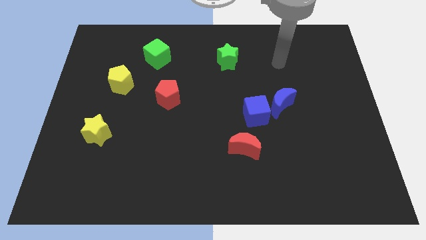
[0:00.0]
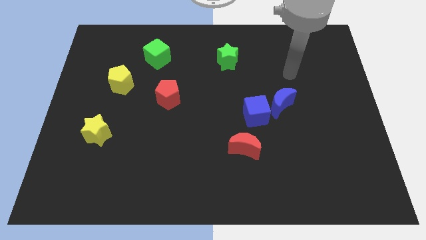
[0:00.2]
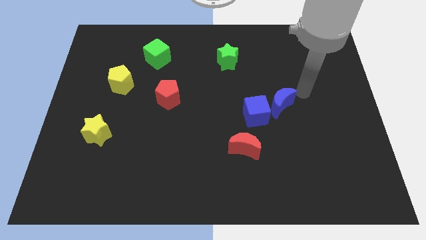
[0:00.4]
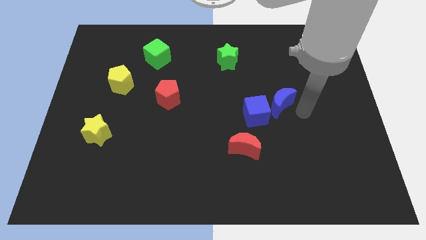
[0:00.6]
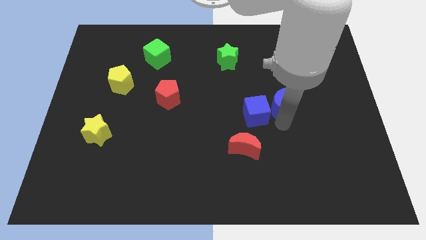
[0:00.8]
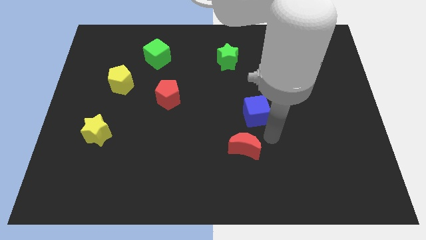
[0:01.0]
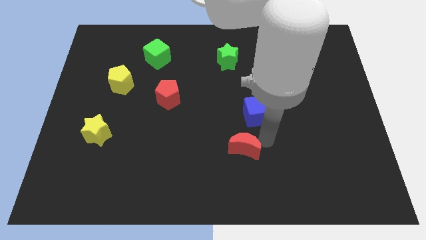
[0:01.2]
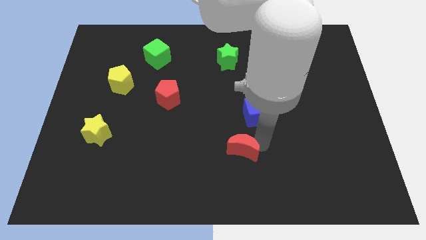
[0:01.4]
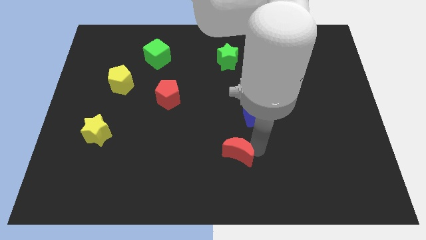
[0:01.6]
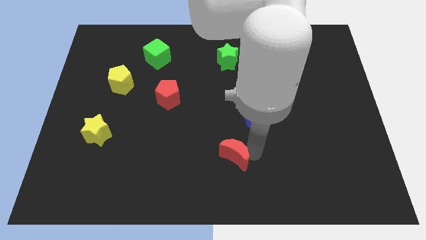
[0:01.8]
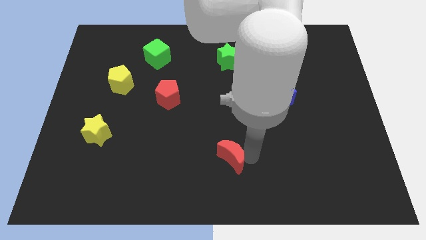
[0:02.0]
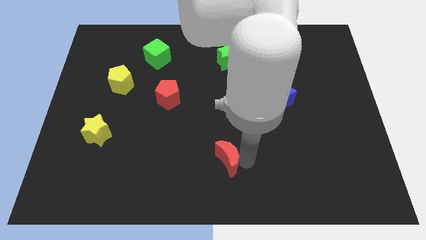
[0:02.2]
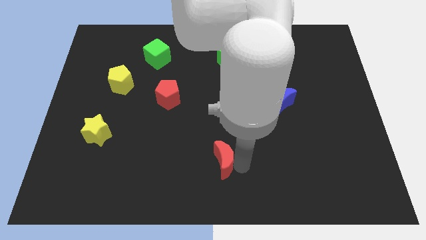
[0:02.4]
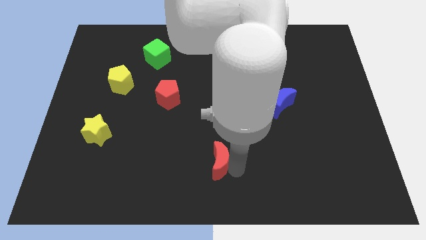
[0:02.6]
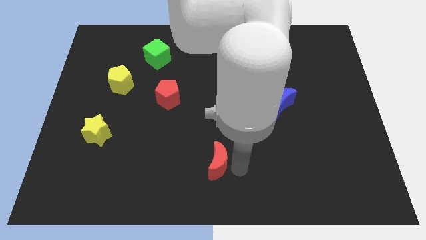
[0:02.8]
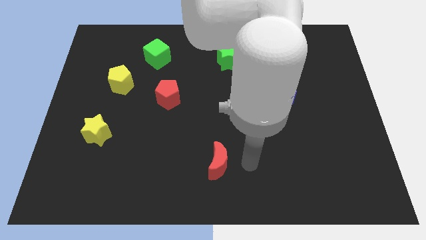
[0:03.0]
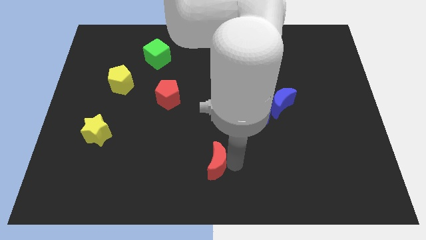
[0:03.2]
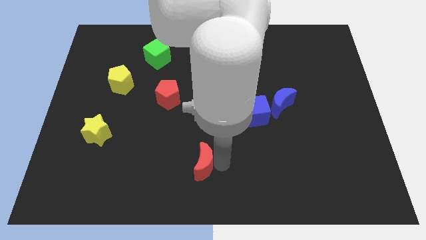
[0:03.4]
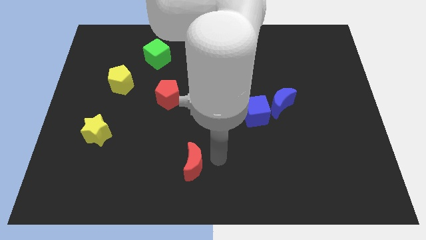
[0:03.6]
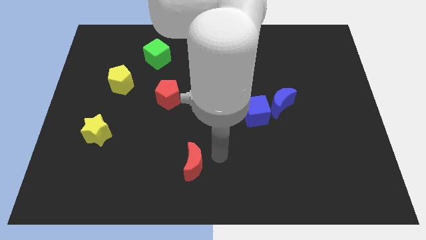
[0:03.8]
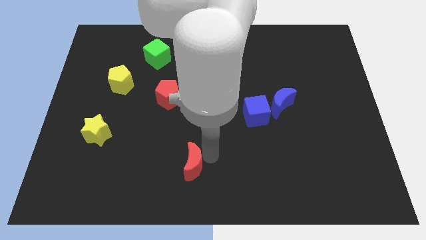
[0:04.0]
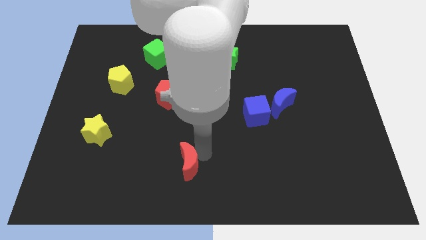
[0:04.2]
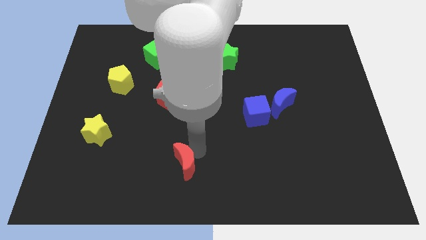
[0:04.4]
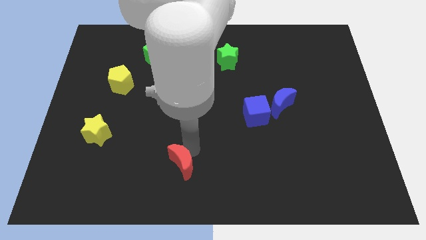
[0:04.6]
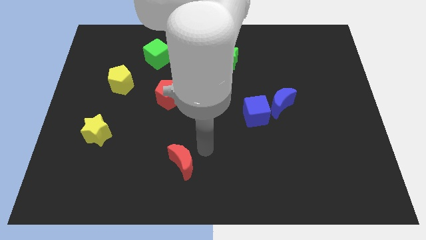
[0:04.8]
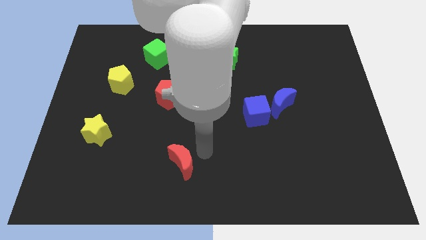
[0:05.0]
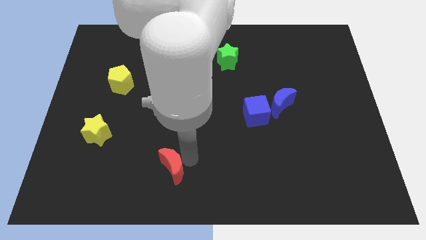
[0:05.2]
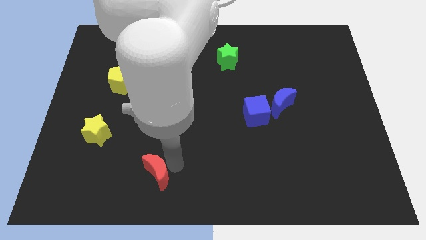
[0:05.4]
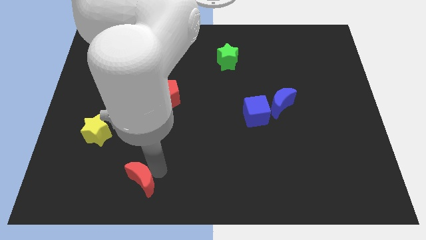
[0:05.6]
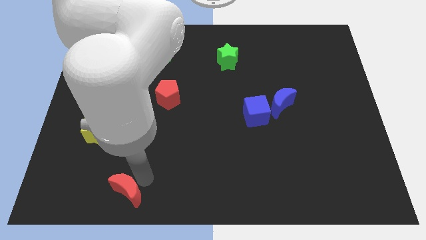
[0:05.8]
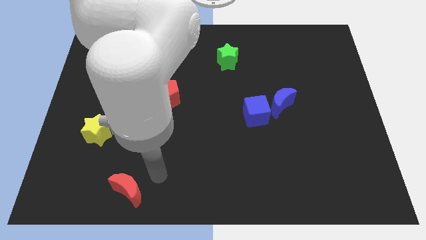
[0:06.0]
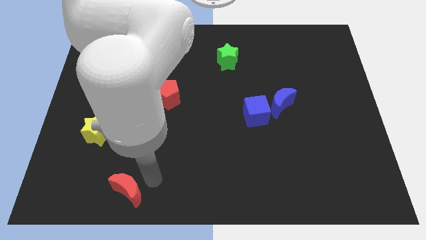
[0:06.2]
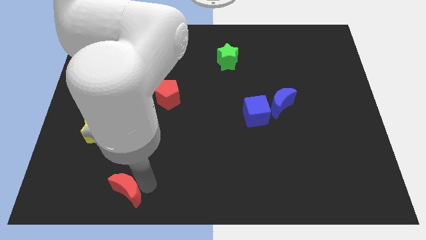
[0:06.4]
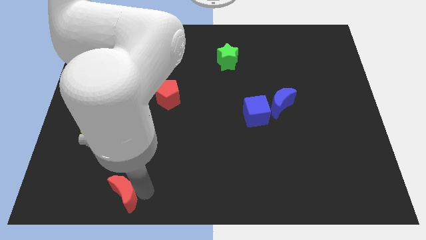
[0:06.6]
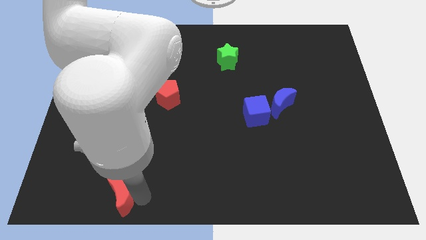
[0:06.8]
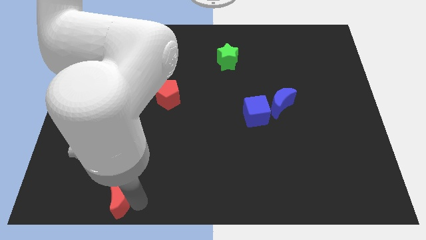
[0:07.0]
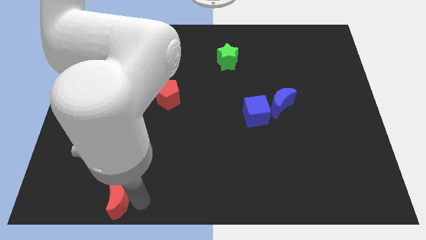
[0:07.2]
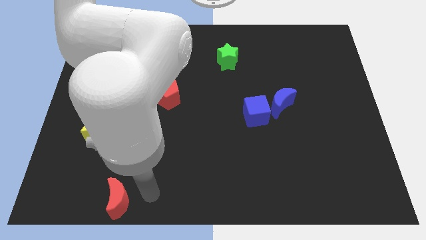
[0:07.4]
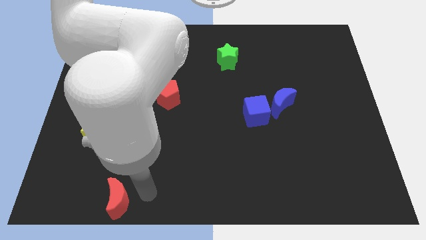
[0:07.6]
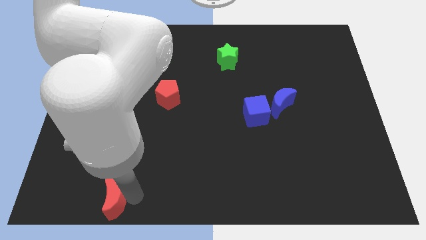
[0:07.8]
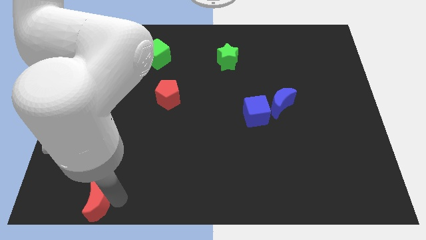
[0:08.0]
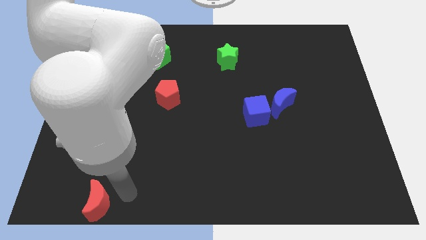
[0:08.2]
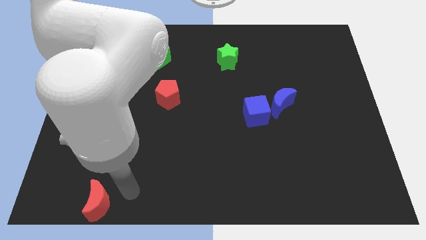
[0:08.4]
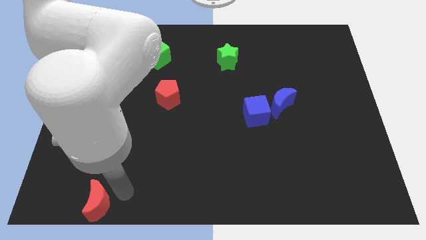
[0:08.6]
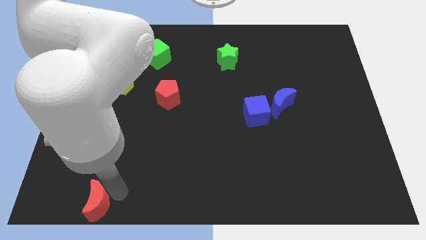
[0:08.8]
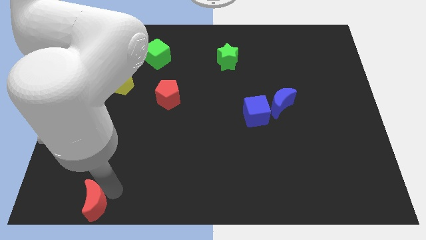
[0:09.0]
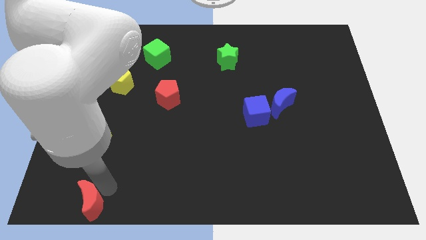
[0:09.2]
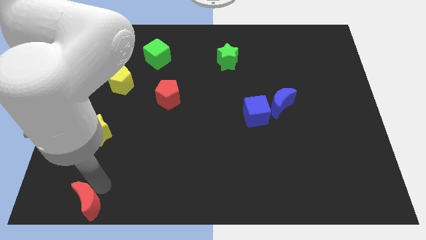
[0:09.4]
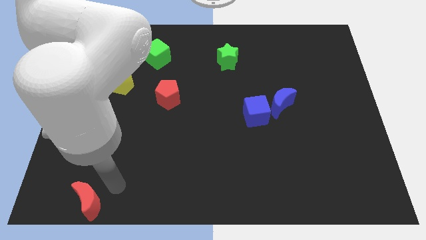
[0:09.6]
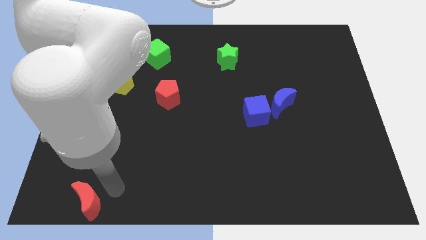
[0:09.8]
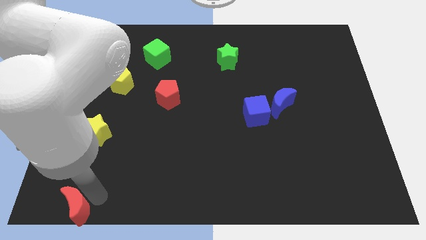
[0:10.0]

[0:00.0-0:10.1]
slide the red moon to the bottom left

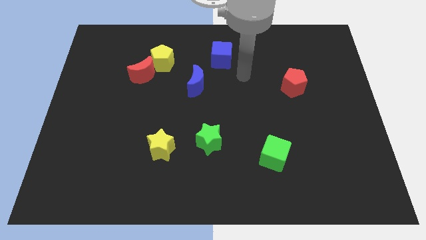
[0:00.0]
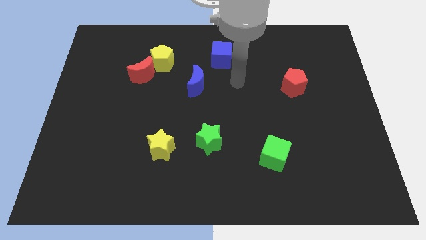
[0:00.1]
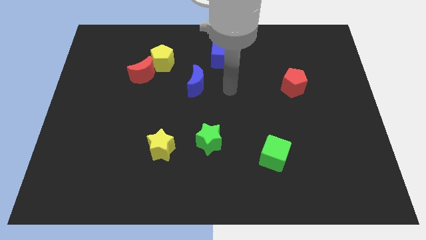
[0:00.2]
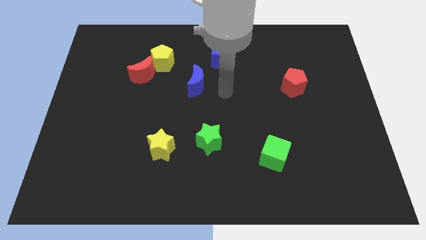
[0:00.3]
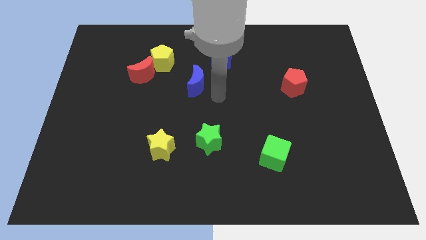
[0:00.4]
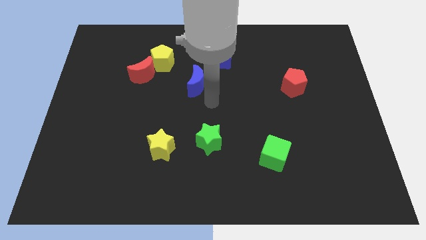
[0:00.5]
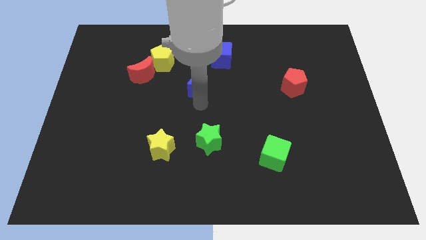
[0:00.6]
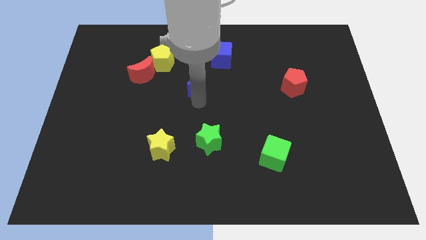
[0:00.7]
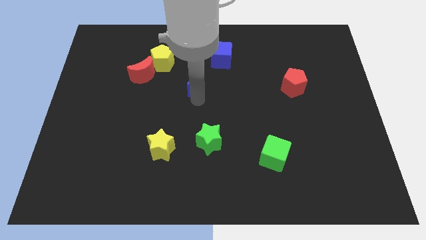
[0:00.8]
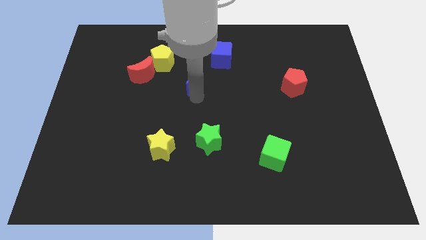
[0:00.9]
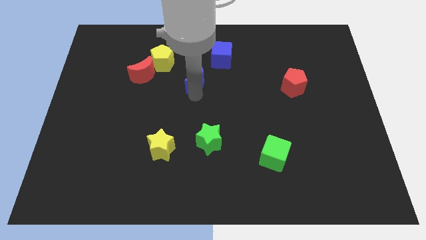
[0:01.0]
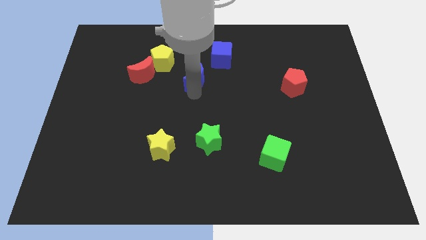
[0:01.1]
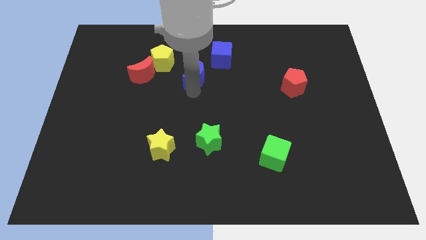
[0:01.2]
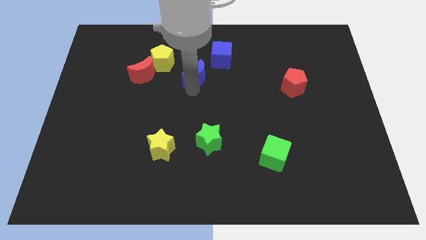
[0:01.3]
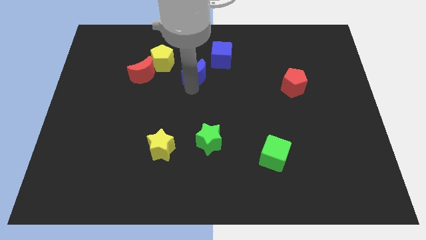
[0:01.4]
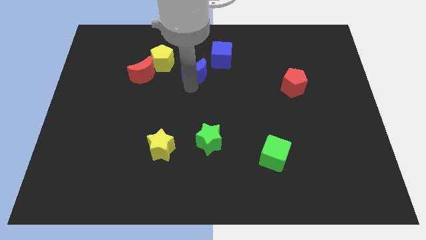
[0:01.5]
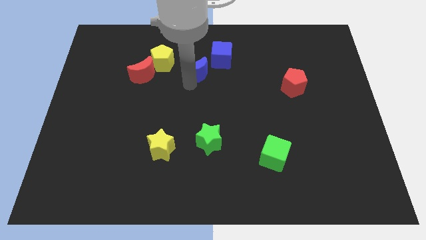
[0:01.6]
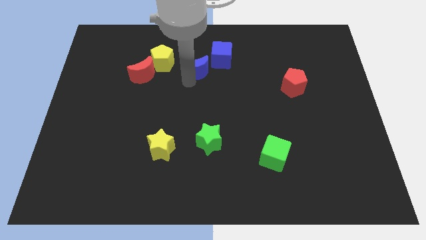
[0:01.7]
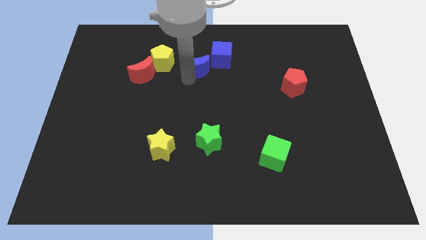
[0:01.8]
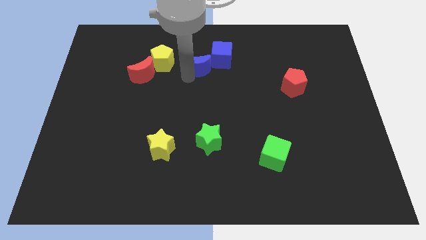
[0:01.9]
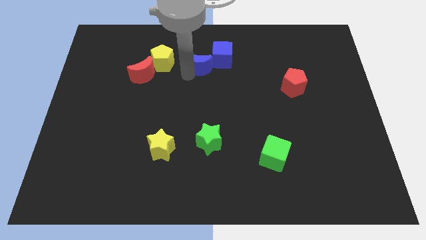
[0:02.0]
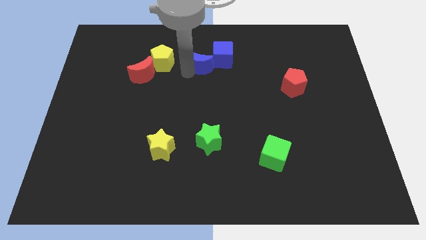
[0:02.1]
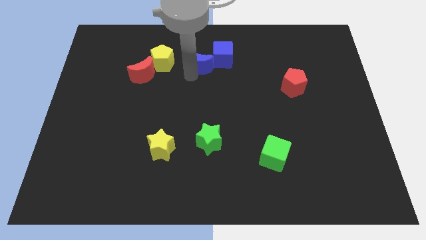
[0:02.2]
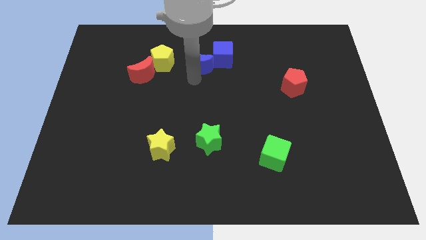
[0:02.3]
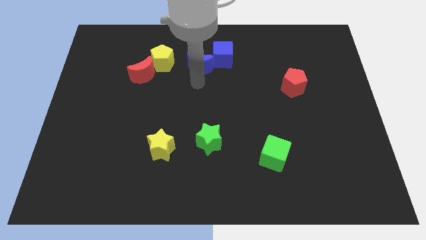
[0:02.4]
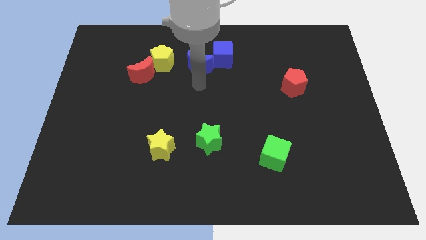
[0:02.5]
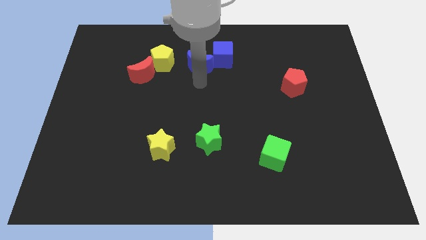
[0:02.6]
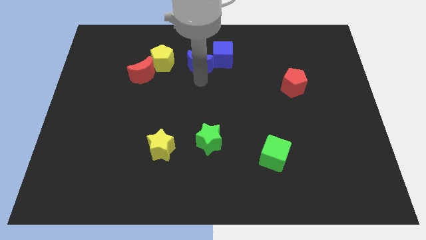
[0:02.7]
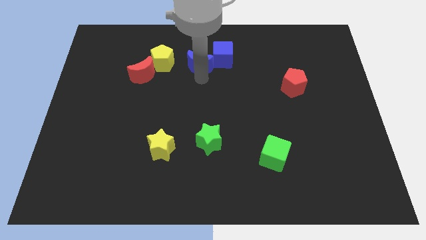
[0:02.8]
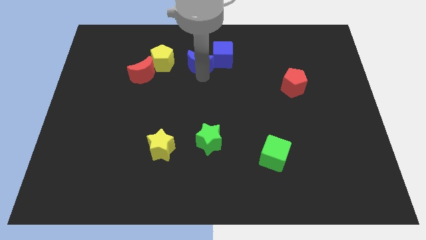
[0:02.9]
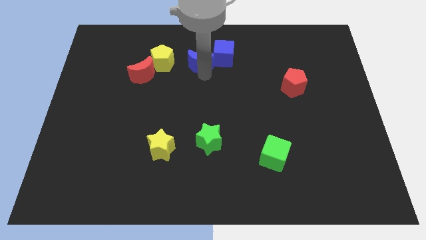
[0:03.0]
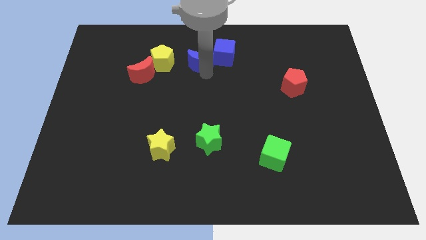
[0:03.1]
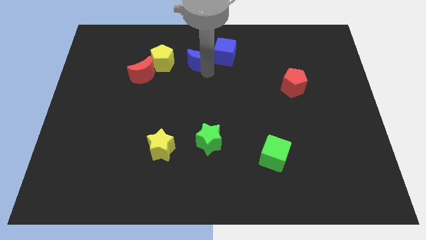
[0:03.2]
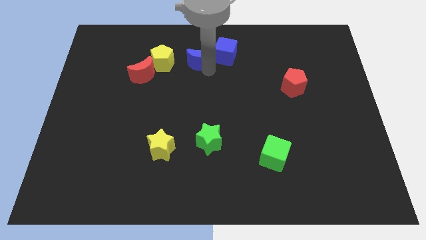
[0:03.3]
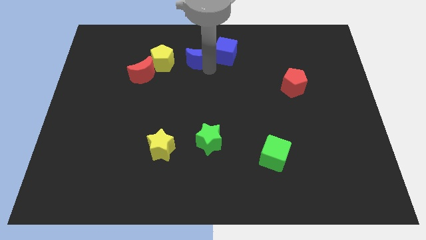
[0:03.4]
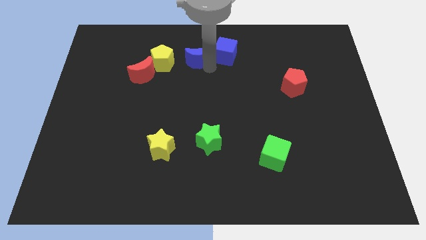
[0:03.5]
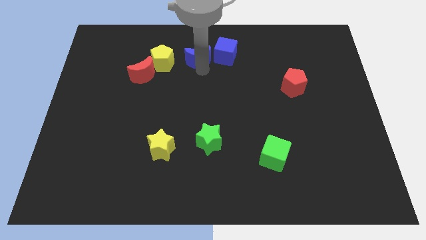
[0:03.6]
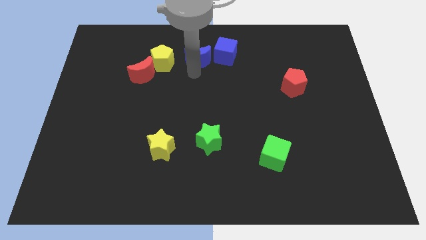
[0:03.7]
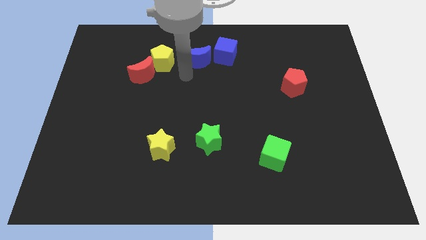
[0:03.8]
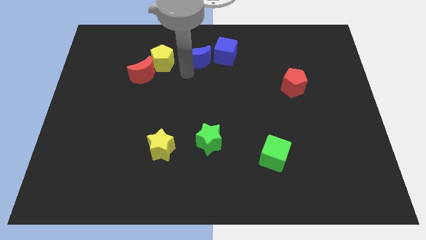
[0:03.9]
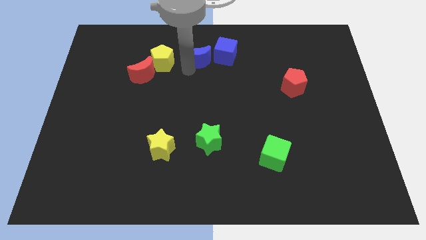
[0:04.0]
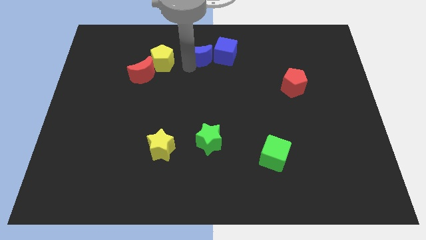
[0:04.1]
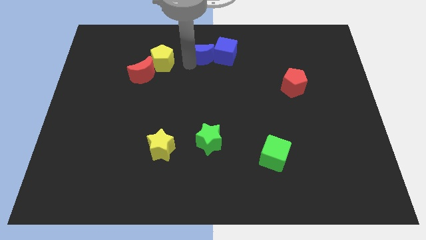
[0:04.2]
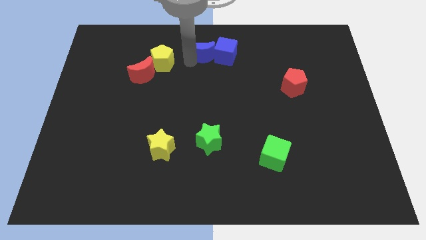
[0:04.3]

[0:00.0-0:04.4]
push the blue moon to the top side
